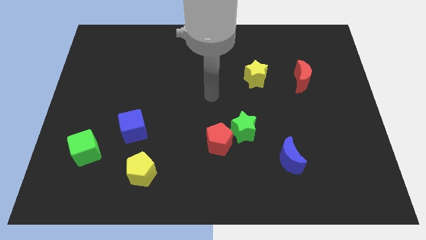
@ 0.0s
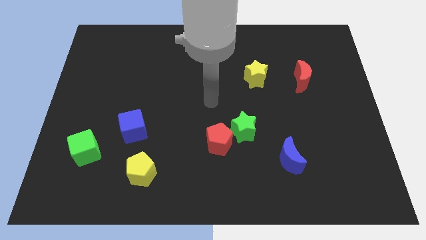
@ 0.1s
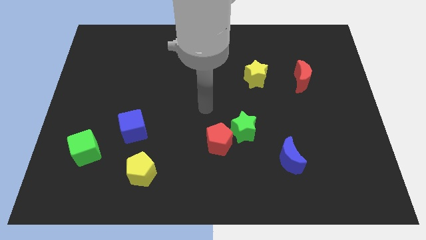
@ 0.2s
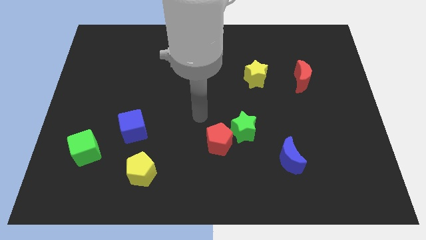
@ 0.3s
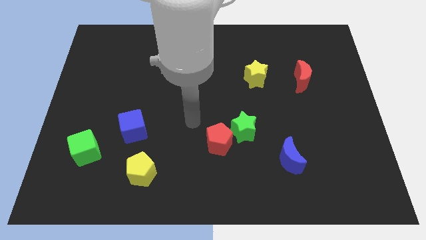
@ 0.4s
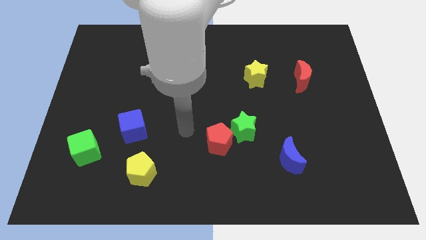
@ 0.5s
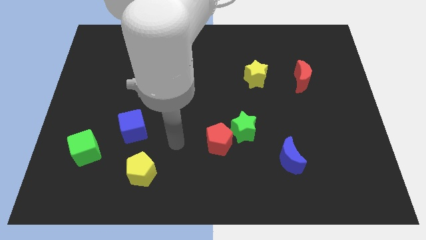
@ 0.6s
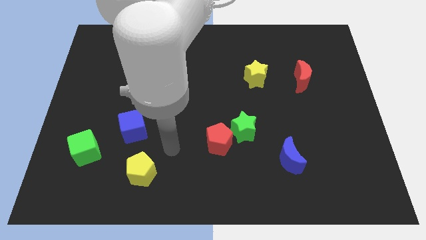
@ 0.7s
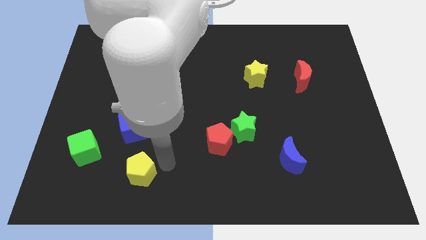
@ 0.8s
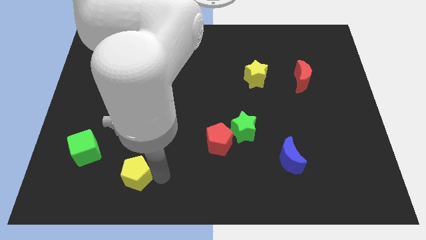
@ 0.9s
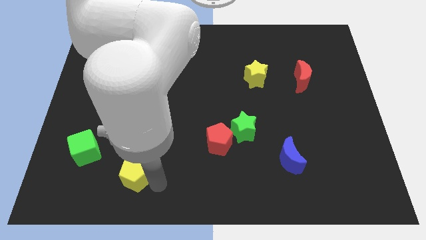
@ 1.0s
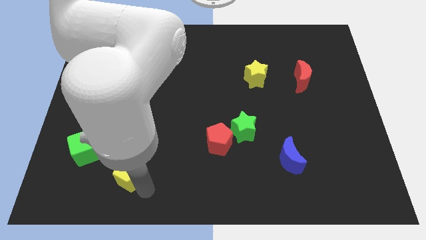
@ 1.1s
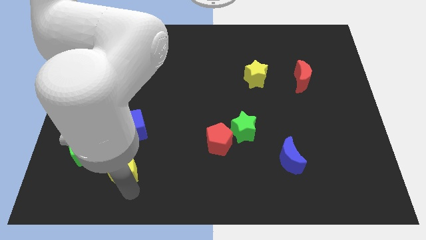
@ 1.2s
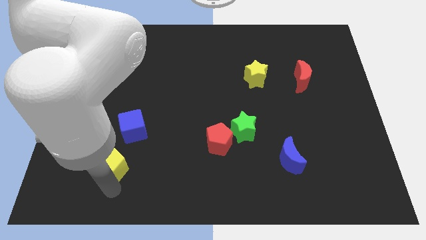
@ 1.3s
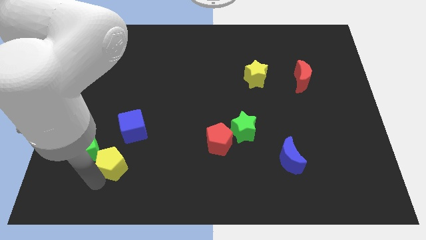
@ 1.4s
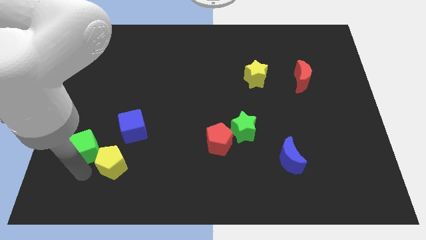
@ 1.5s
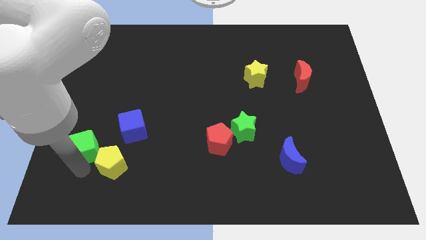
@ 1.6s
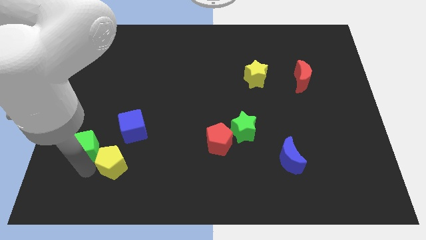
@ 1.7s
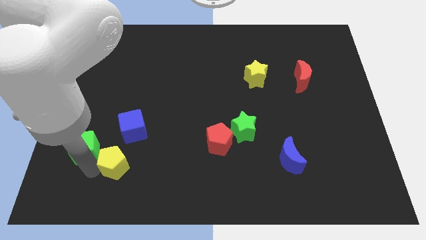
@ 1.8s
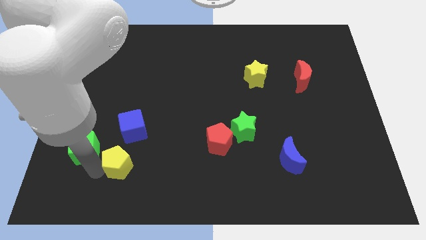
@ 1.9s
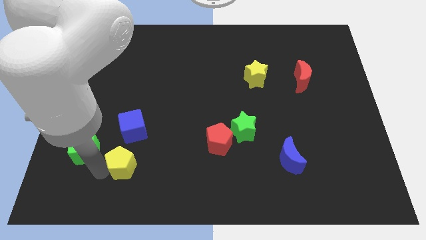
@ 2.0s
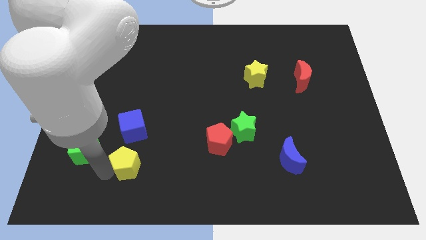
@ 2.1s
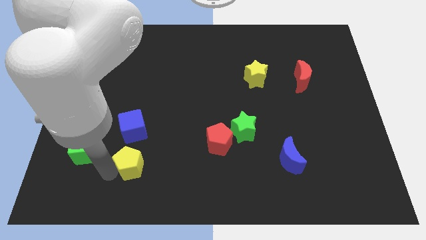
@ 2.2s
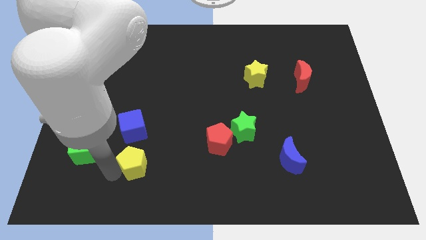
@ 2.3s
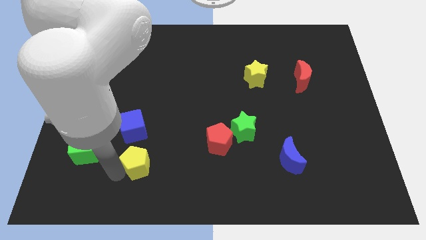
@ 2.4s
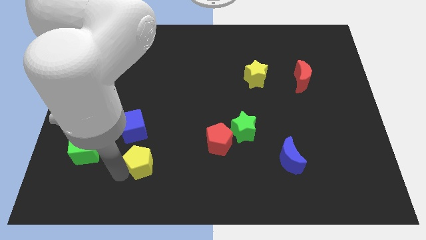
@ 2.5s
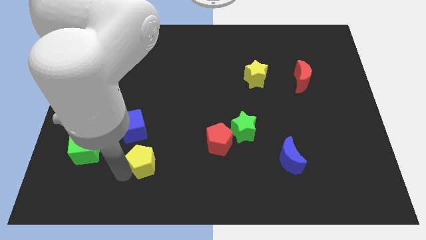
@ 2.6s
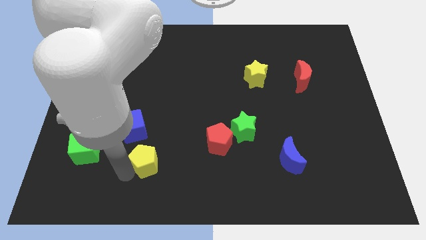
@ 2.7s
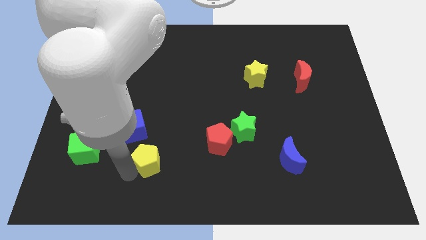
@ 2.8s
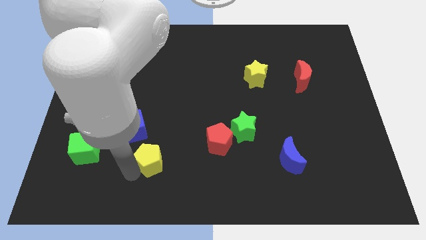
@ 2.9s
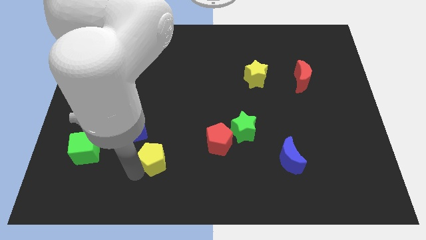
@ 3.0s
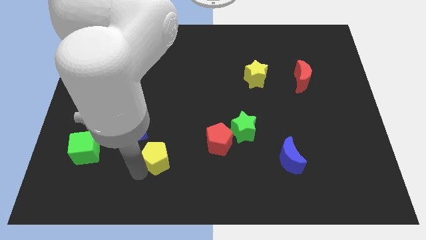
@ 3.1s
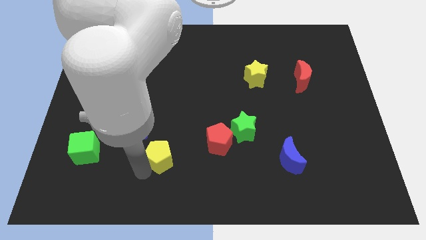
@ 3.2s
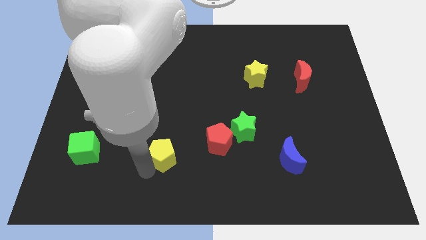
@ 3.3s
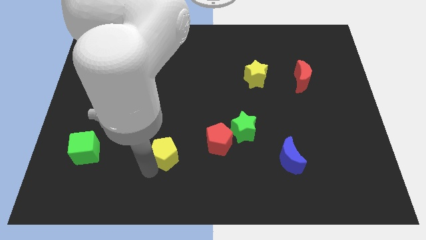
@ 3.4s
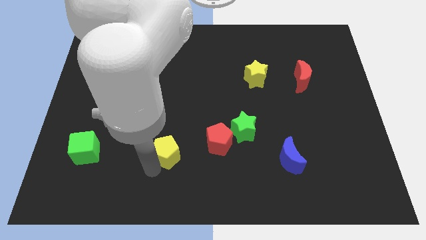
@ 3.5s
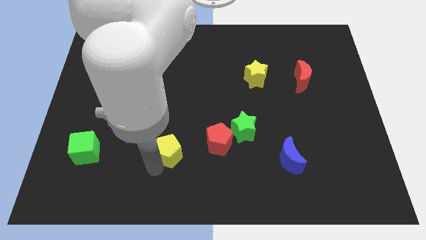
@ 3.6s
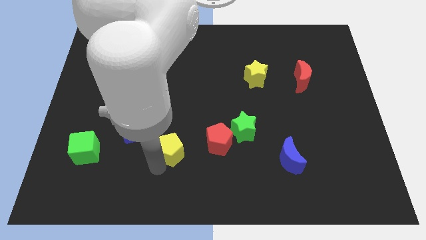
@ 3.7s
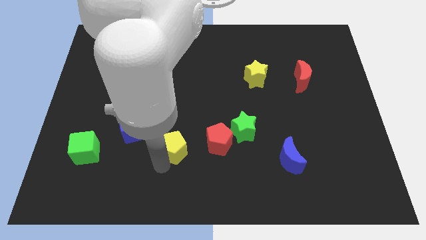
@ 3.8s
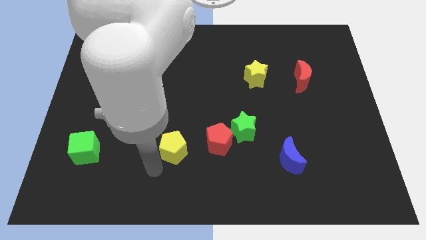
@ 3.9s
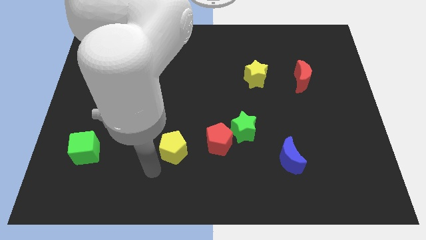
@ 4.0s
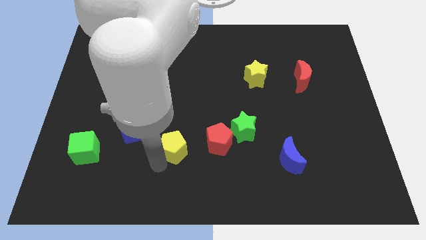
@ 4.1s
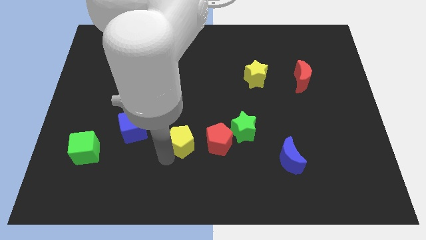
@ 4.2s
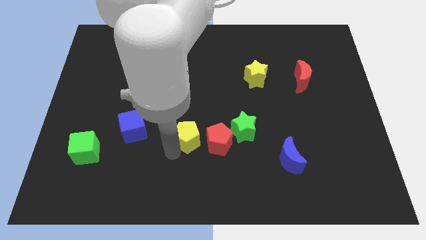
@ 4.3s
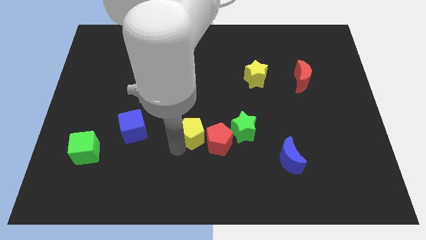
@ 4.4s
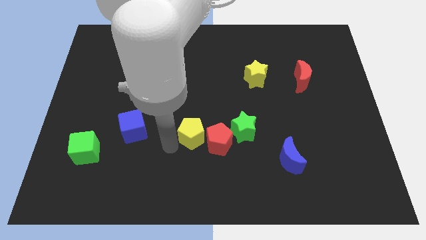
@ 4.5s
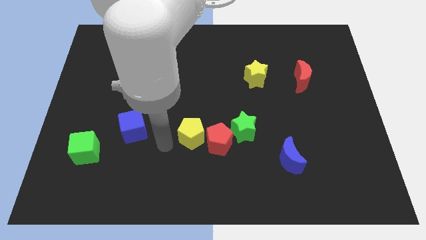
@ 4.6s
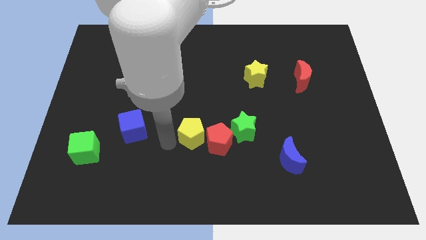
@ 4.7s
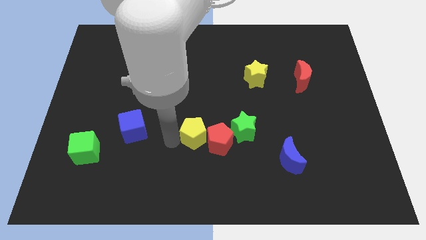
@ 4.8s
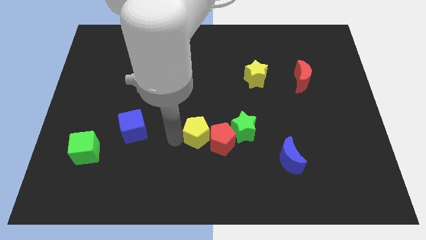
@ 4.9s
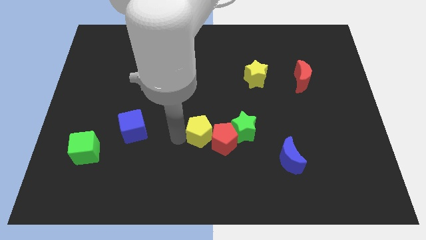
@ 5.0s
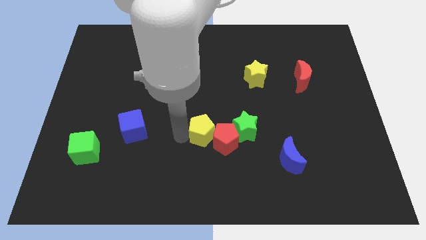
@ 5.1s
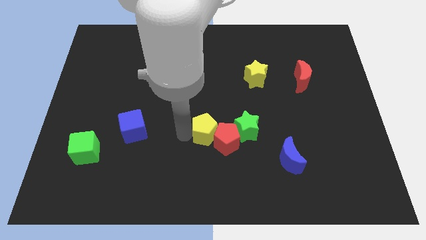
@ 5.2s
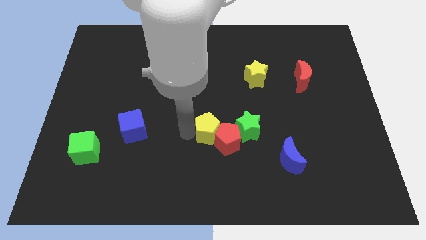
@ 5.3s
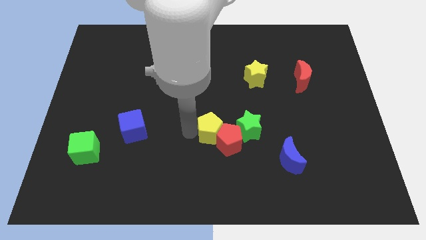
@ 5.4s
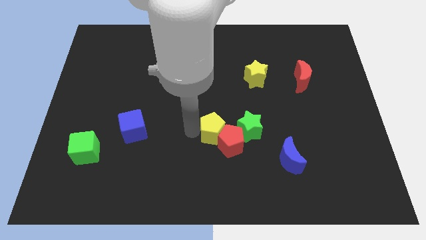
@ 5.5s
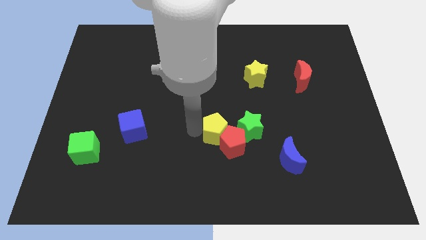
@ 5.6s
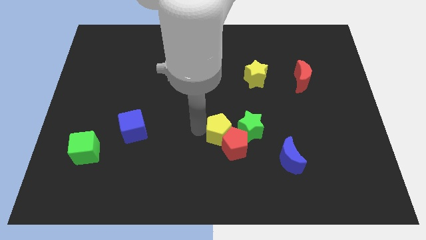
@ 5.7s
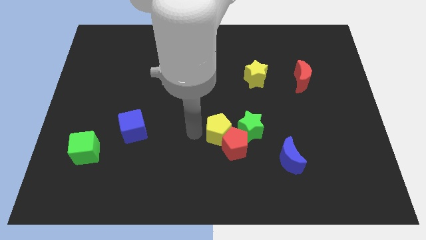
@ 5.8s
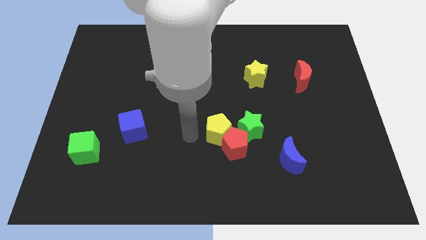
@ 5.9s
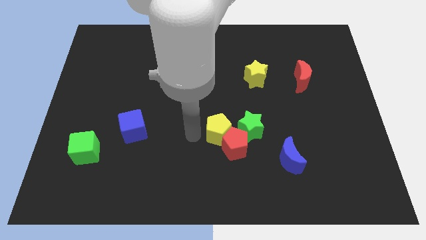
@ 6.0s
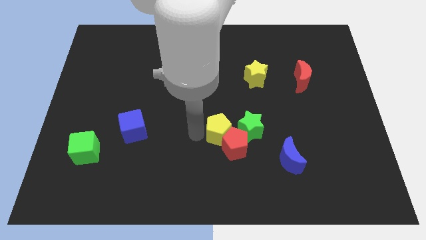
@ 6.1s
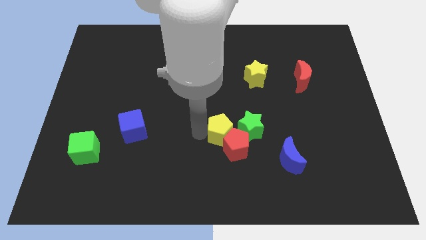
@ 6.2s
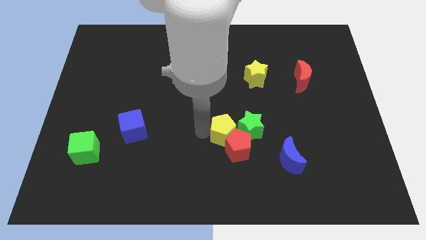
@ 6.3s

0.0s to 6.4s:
put the yellow pentagon towards the green star

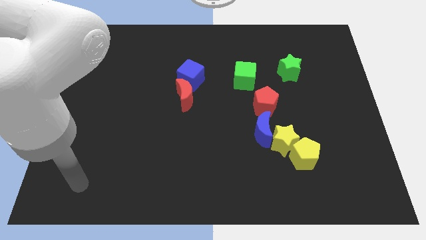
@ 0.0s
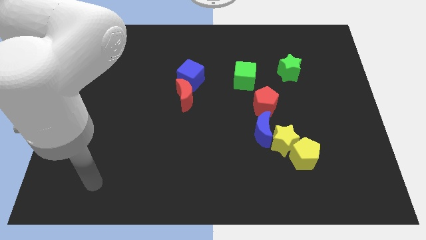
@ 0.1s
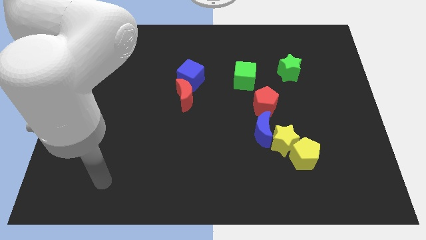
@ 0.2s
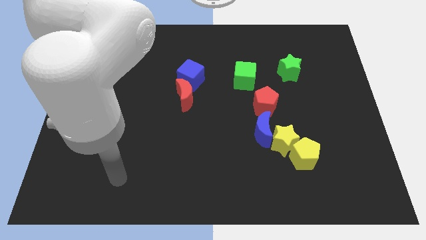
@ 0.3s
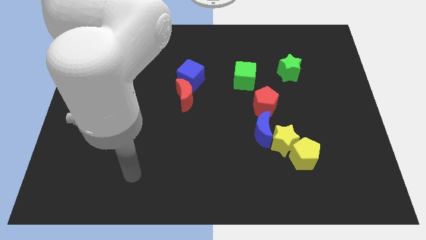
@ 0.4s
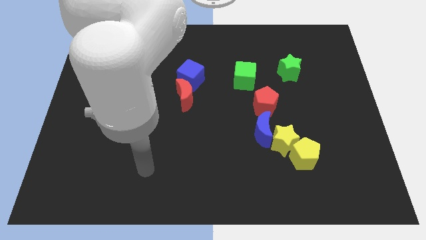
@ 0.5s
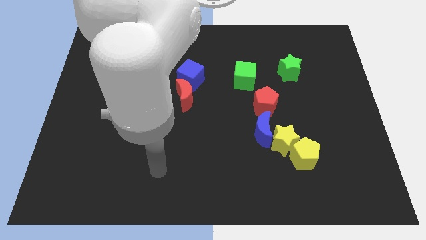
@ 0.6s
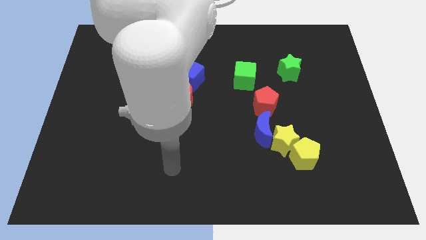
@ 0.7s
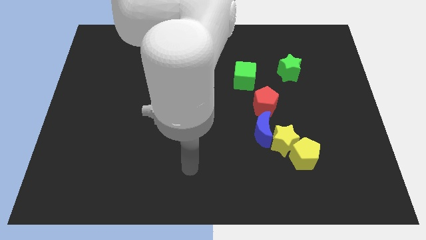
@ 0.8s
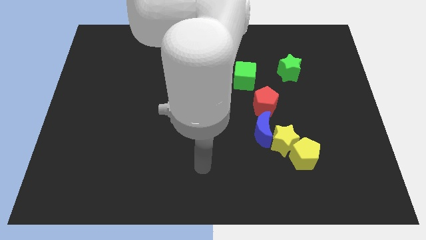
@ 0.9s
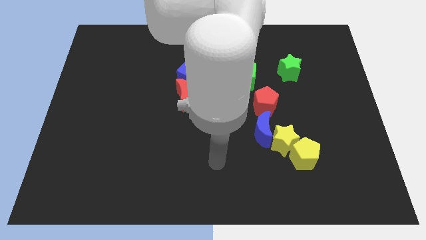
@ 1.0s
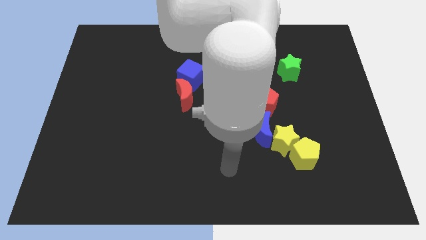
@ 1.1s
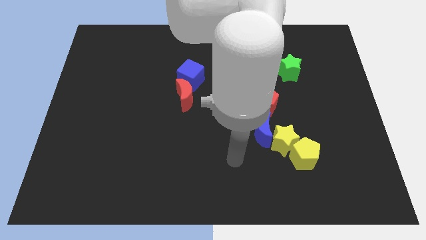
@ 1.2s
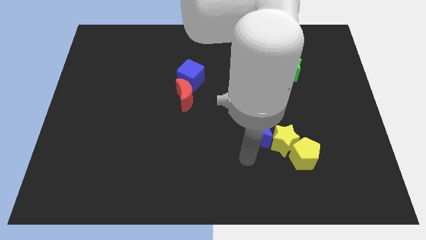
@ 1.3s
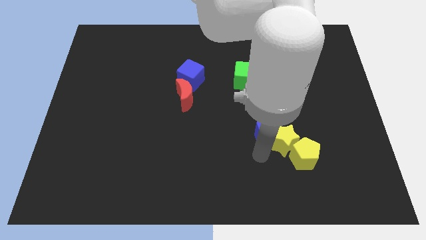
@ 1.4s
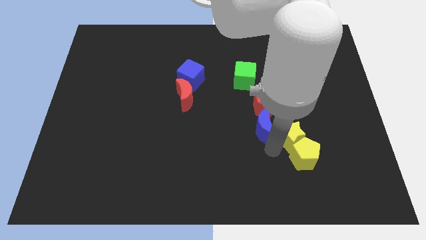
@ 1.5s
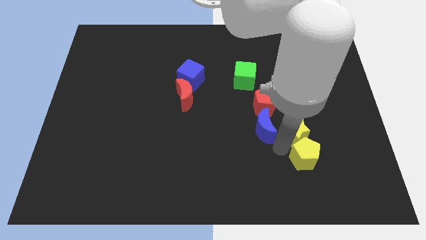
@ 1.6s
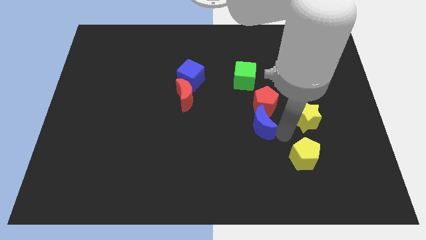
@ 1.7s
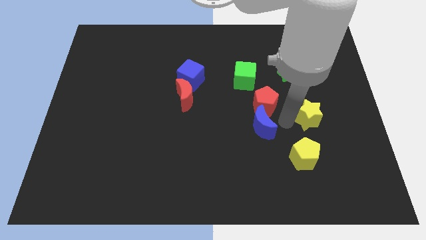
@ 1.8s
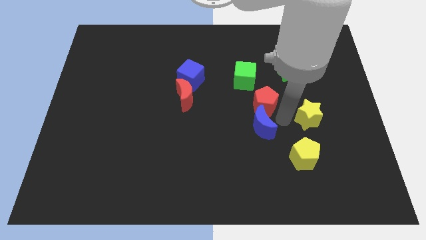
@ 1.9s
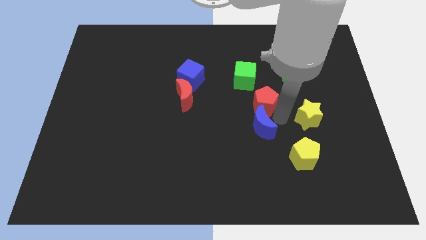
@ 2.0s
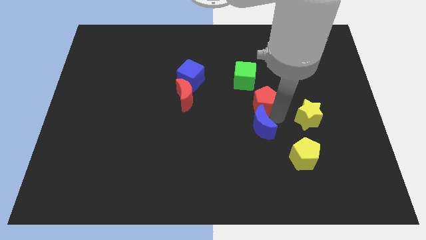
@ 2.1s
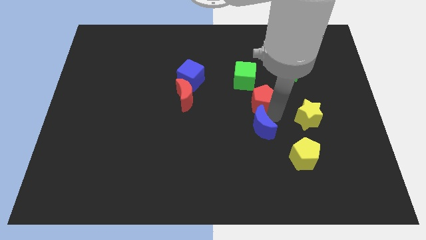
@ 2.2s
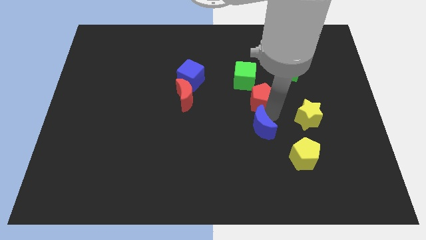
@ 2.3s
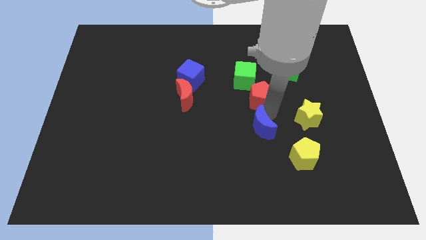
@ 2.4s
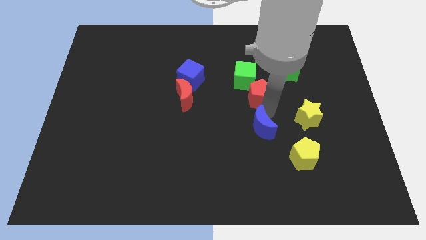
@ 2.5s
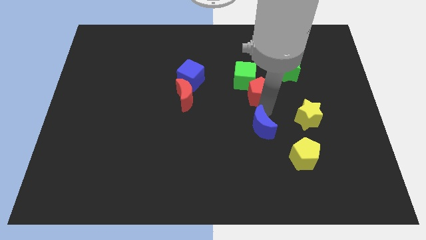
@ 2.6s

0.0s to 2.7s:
put the red pentagon to the green cube
